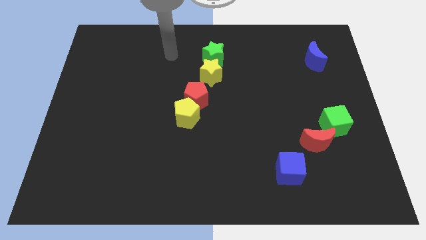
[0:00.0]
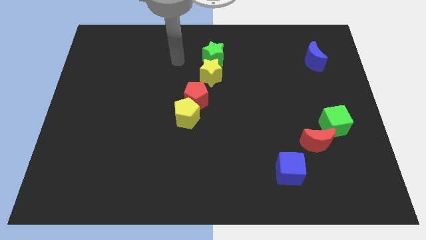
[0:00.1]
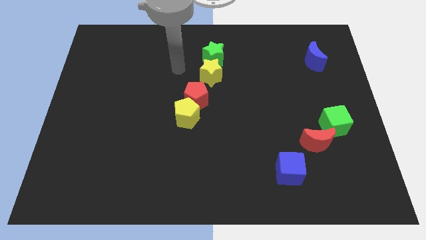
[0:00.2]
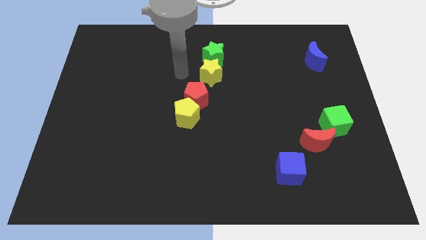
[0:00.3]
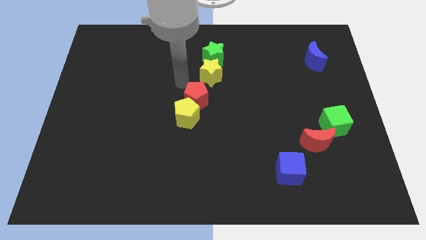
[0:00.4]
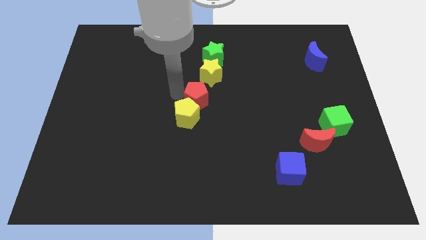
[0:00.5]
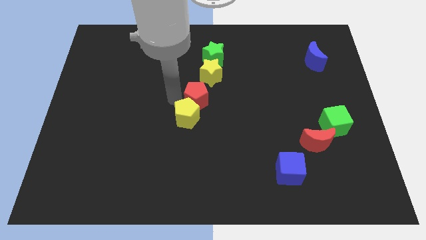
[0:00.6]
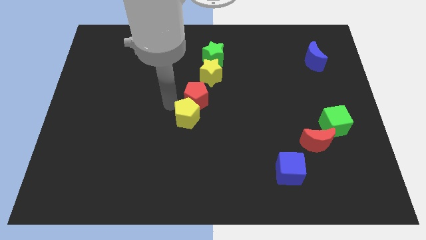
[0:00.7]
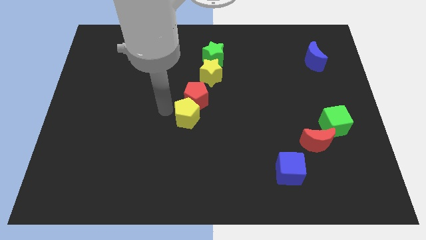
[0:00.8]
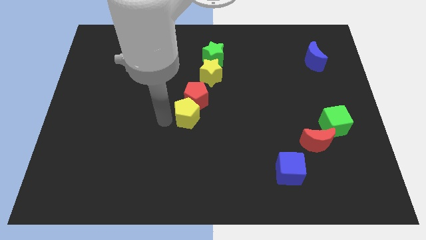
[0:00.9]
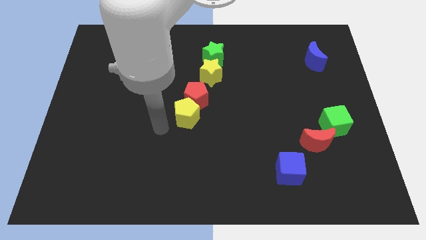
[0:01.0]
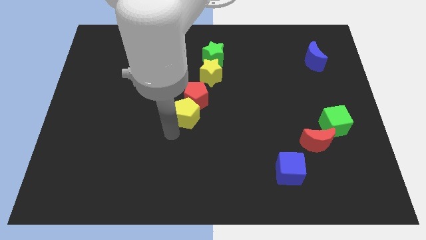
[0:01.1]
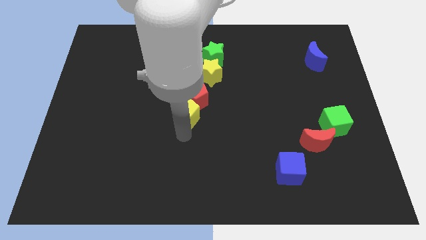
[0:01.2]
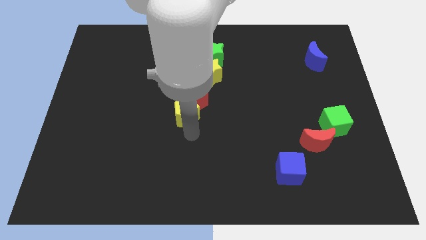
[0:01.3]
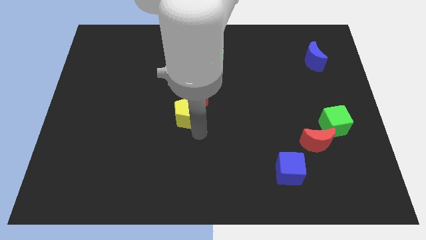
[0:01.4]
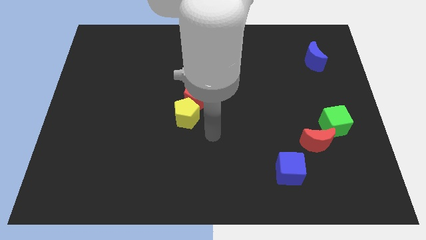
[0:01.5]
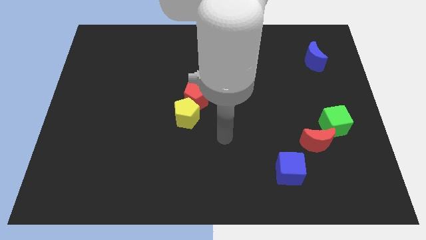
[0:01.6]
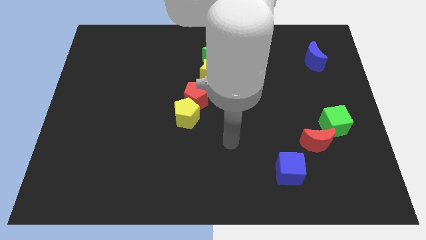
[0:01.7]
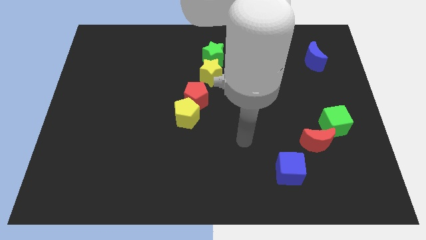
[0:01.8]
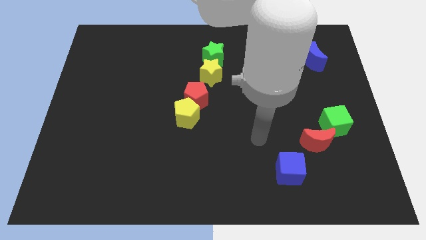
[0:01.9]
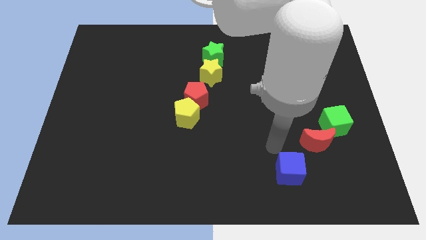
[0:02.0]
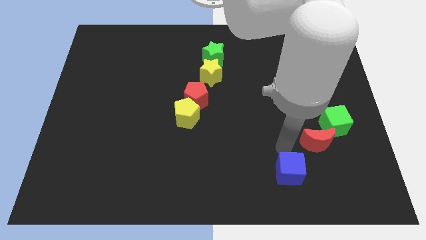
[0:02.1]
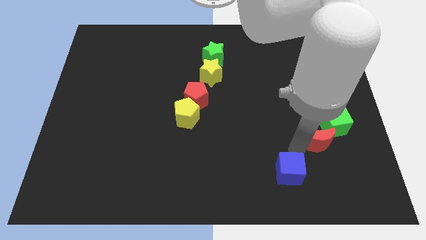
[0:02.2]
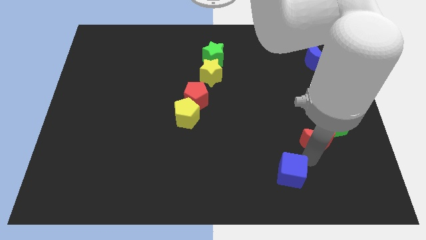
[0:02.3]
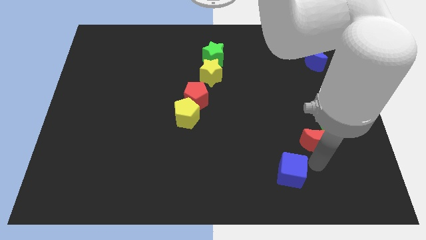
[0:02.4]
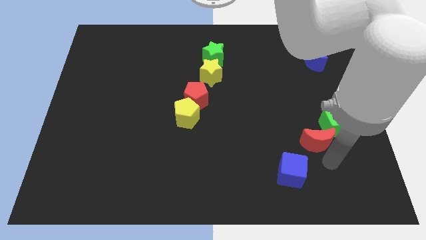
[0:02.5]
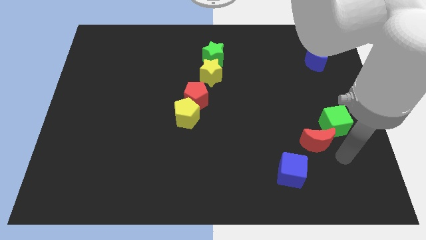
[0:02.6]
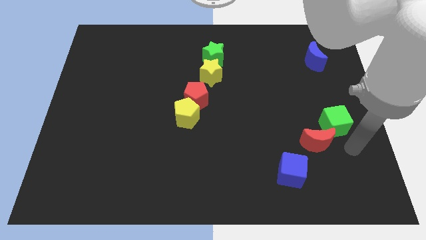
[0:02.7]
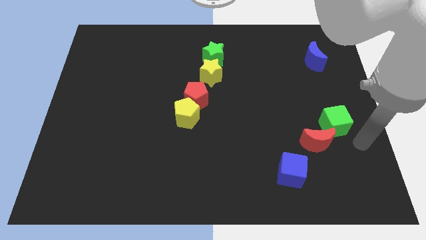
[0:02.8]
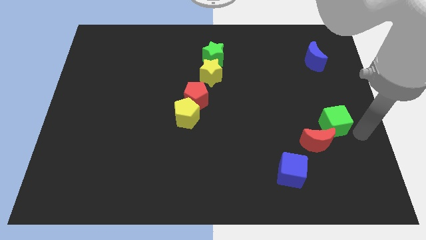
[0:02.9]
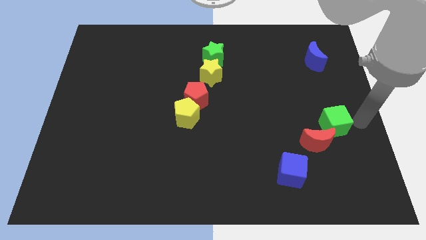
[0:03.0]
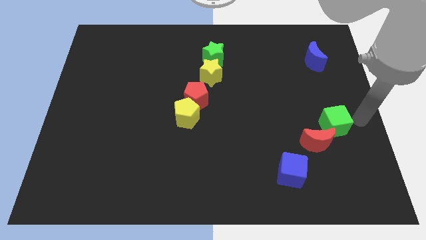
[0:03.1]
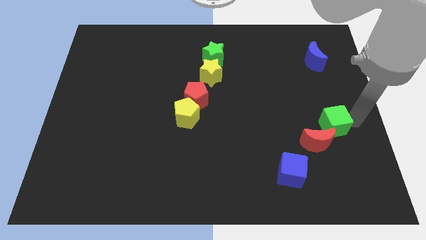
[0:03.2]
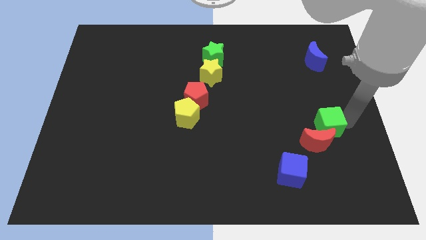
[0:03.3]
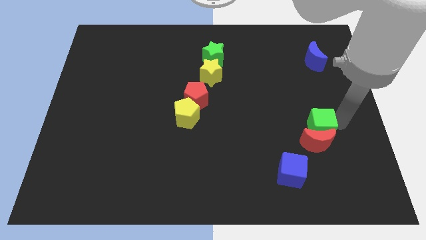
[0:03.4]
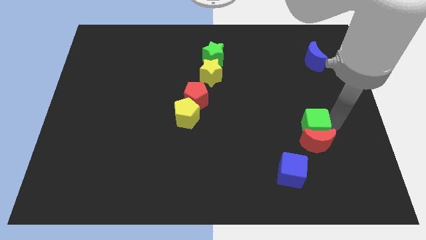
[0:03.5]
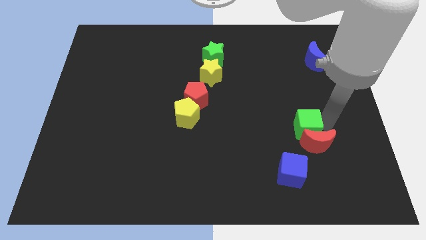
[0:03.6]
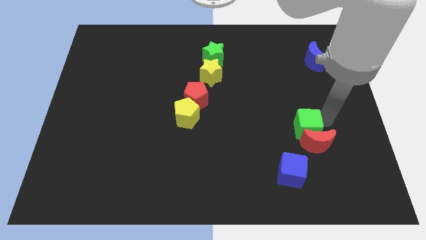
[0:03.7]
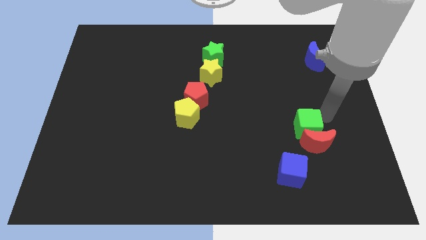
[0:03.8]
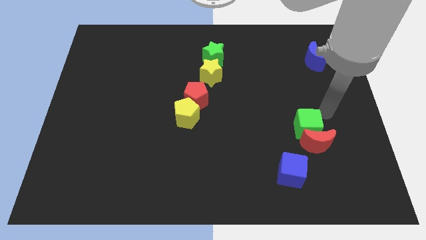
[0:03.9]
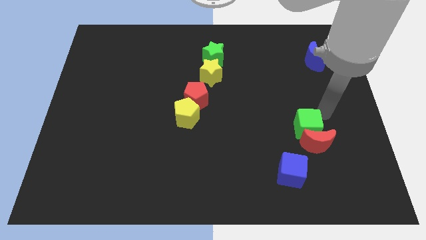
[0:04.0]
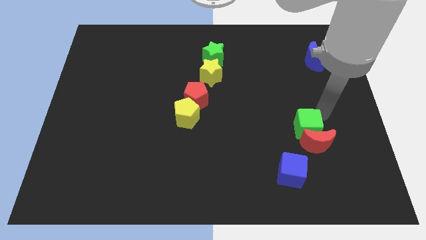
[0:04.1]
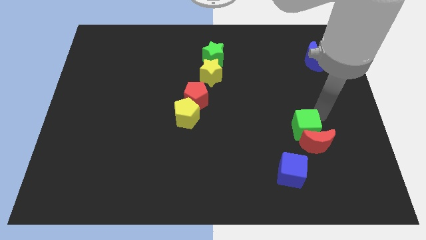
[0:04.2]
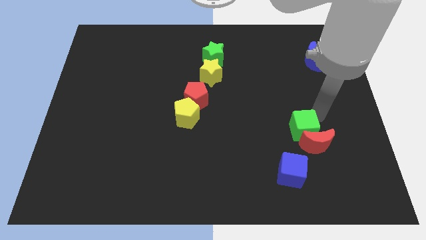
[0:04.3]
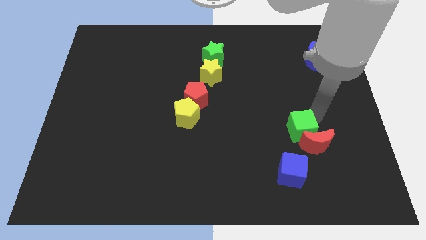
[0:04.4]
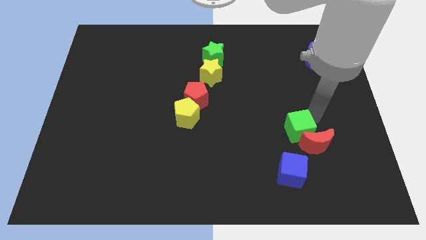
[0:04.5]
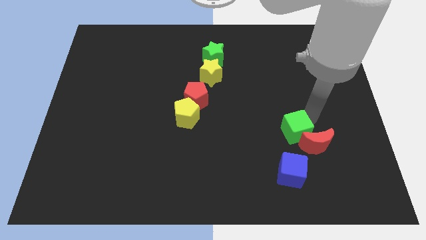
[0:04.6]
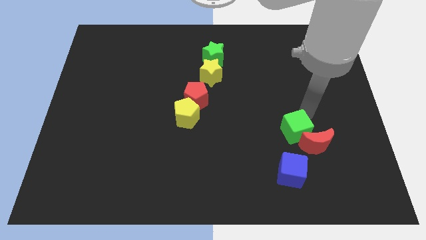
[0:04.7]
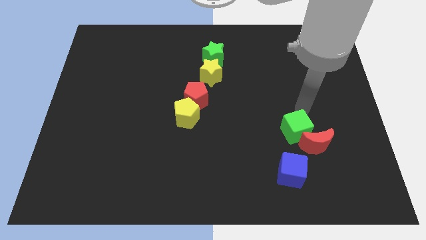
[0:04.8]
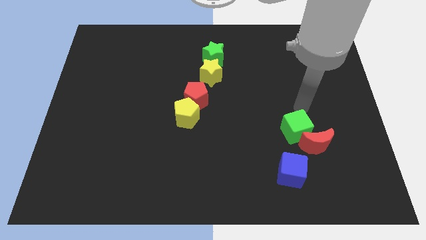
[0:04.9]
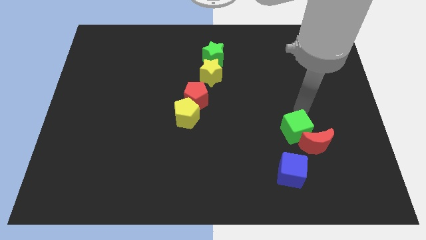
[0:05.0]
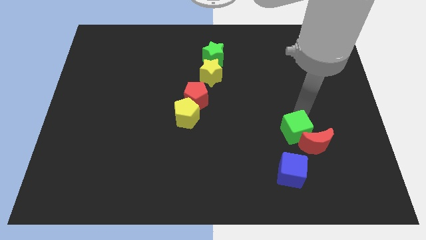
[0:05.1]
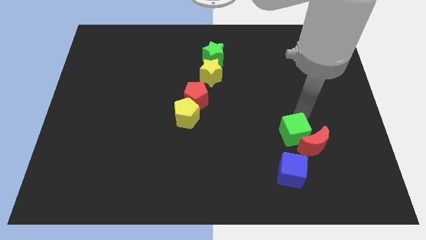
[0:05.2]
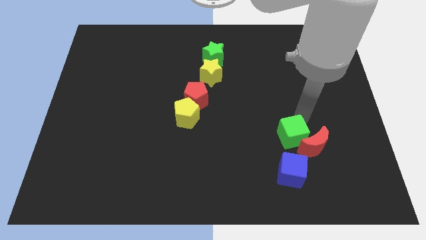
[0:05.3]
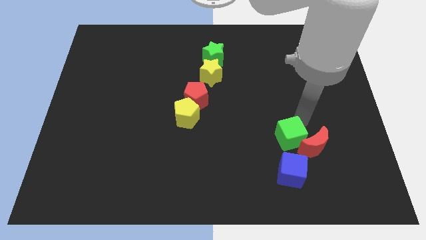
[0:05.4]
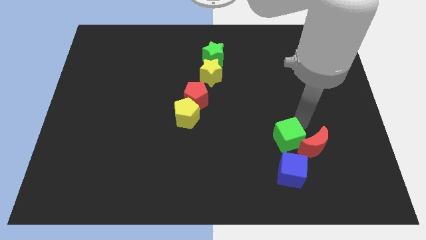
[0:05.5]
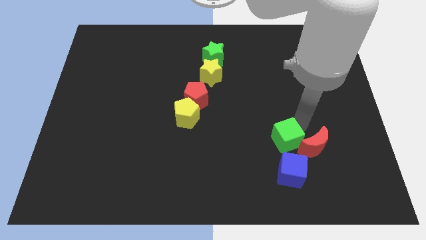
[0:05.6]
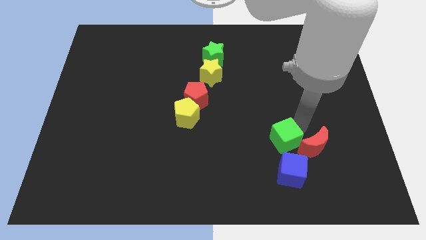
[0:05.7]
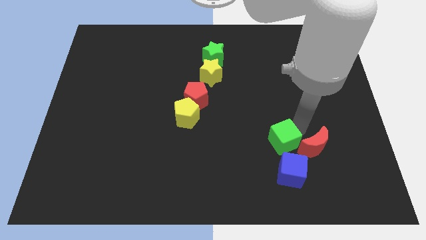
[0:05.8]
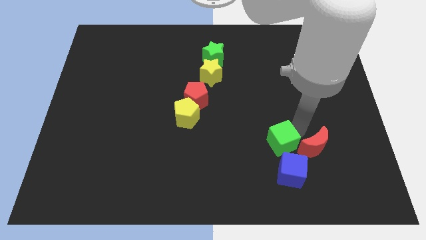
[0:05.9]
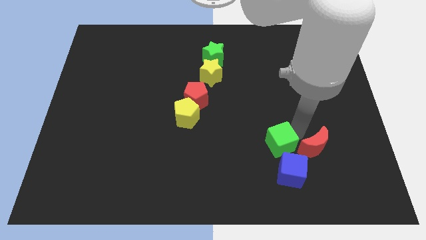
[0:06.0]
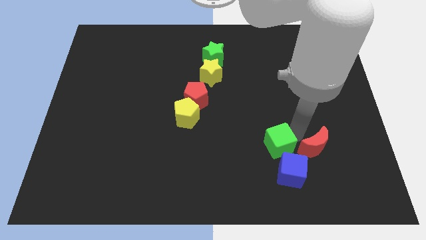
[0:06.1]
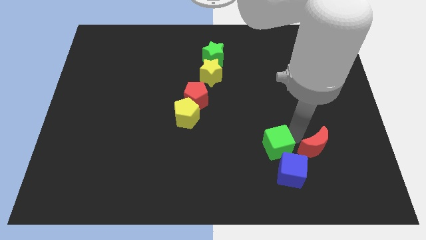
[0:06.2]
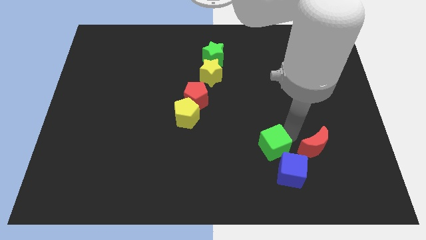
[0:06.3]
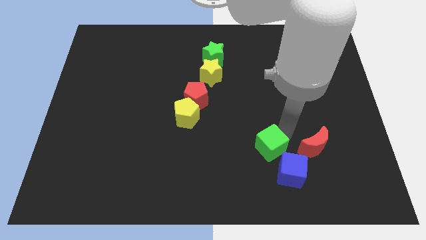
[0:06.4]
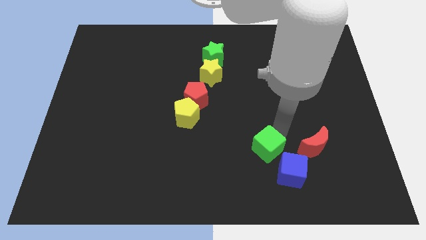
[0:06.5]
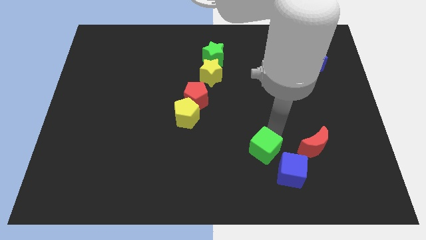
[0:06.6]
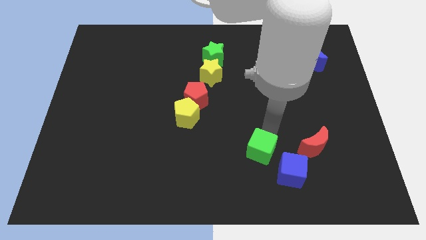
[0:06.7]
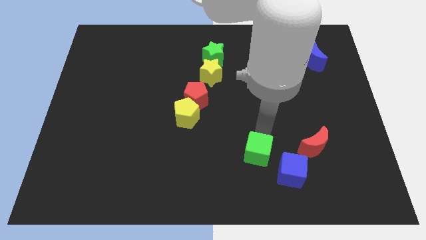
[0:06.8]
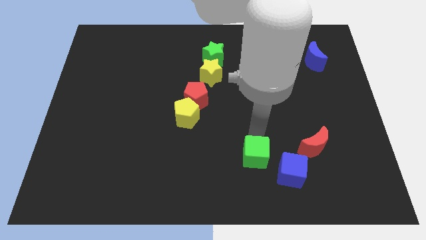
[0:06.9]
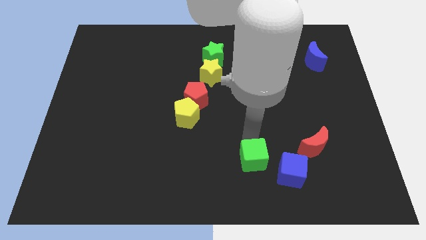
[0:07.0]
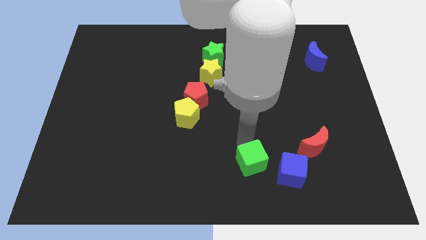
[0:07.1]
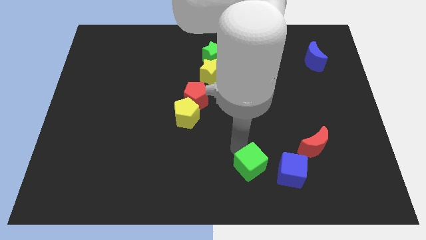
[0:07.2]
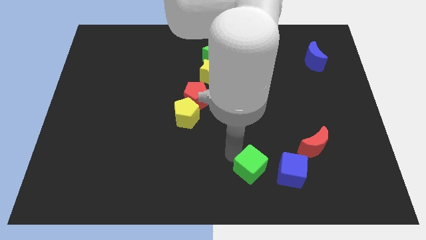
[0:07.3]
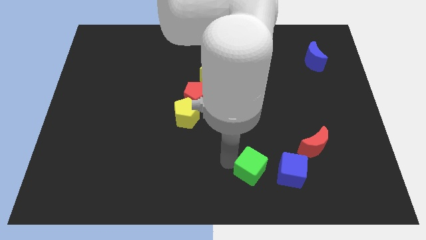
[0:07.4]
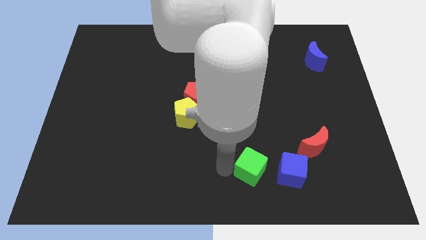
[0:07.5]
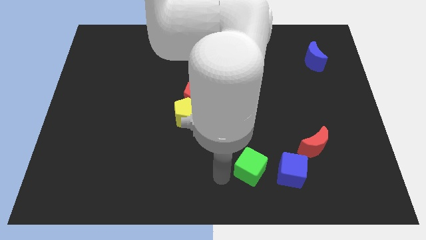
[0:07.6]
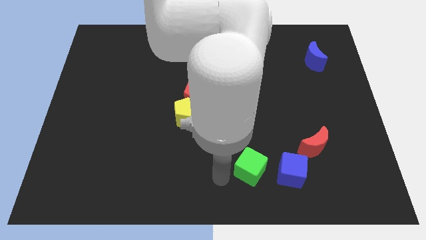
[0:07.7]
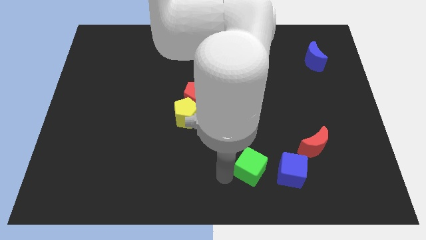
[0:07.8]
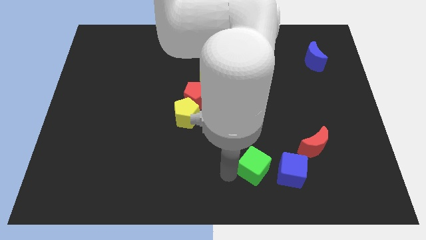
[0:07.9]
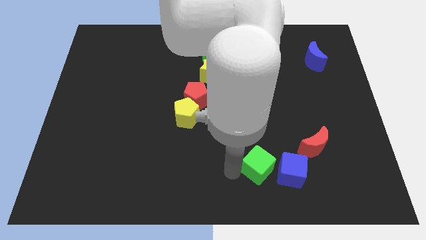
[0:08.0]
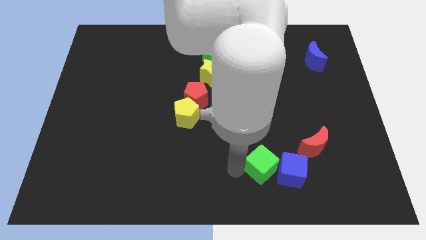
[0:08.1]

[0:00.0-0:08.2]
push the green cube next to the blue cube

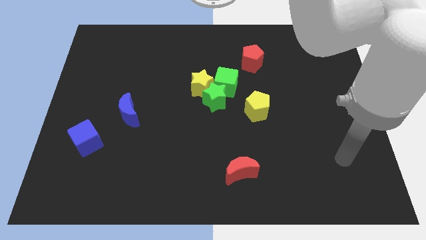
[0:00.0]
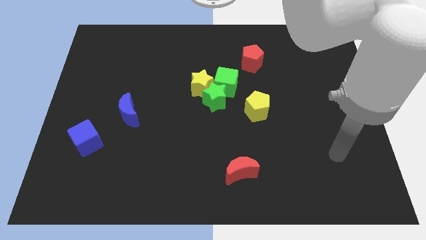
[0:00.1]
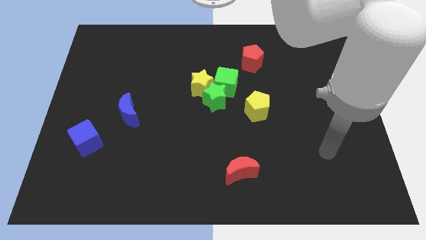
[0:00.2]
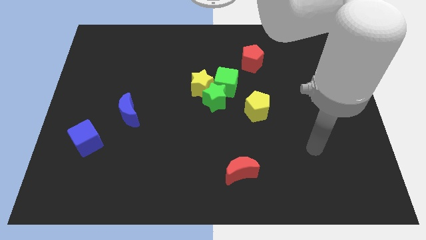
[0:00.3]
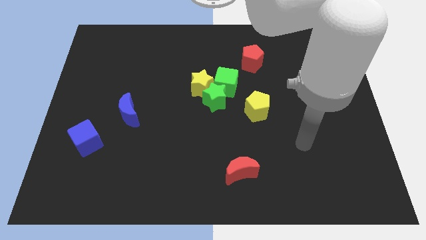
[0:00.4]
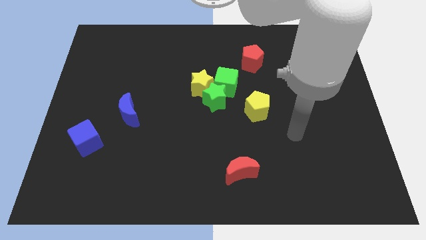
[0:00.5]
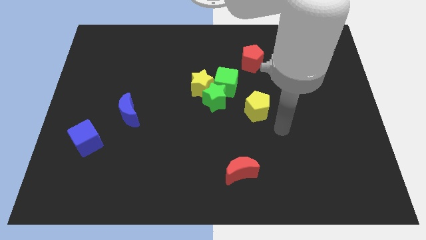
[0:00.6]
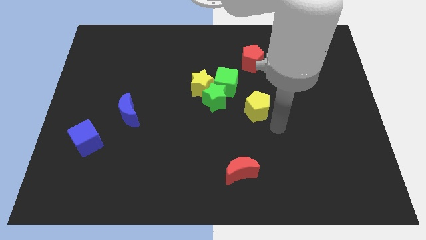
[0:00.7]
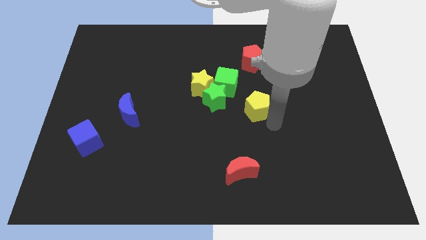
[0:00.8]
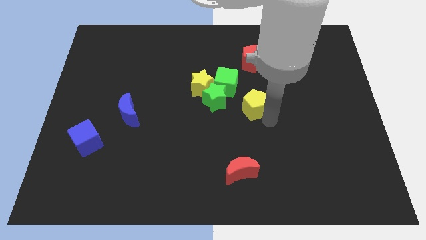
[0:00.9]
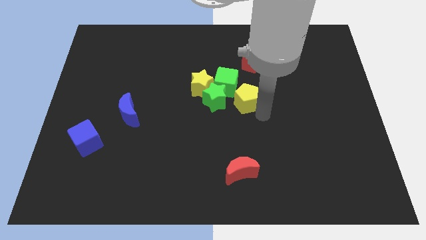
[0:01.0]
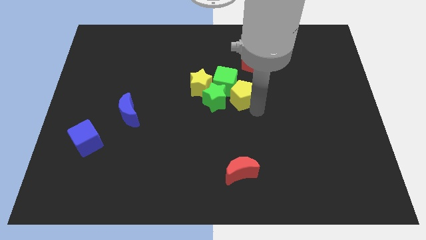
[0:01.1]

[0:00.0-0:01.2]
put the yellow pentagon close to the green cube
